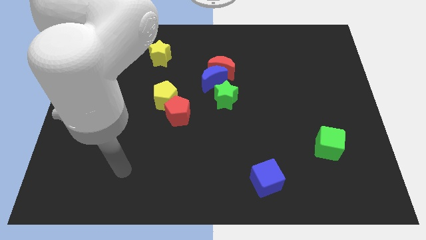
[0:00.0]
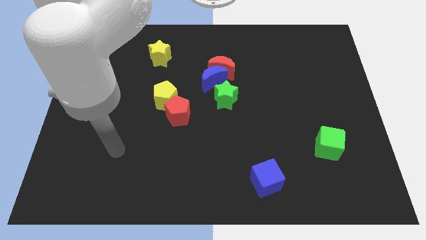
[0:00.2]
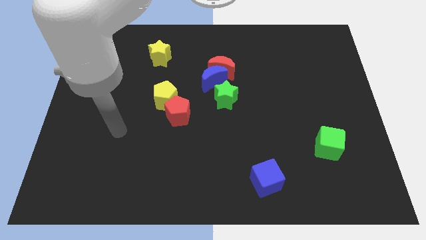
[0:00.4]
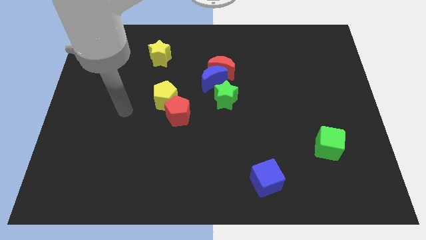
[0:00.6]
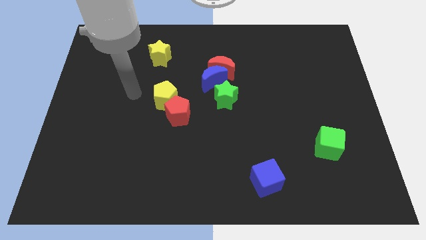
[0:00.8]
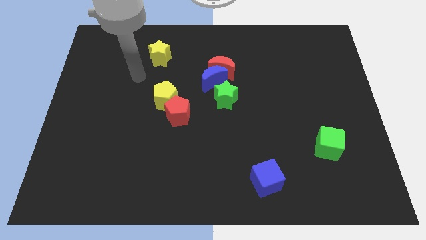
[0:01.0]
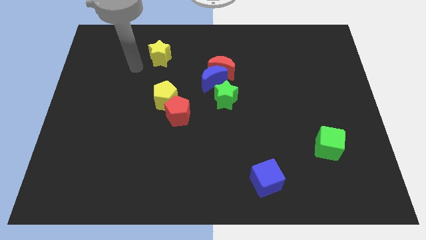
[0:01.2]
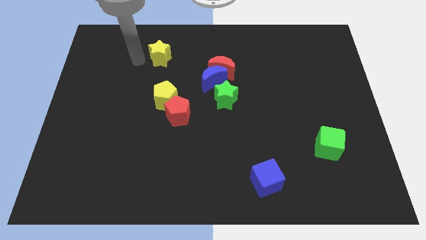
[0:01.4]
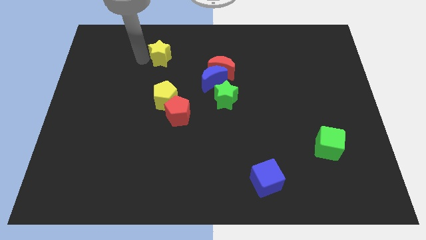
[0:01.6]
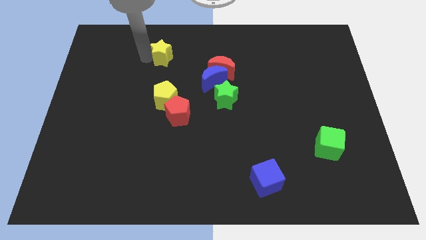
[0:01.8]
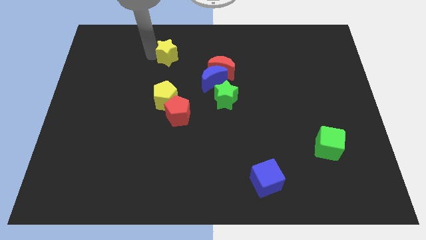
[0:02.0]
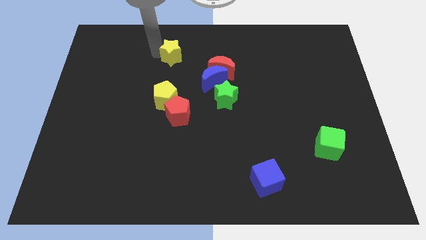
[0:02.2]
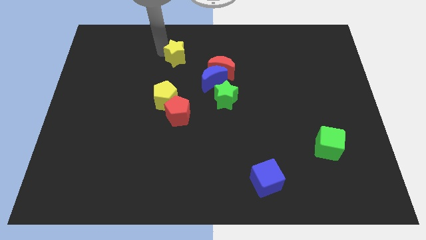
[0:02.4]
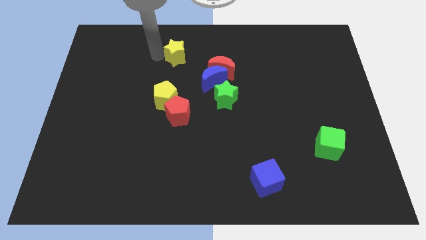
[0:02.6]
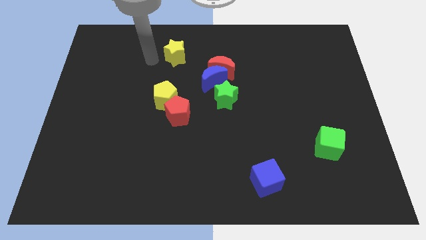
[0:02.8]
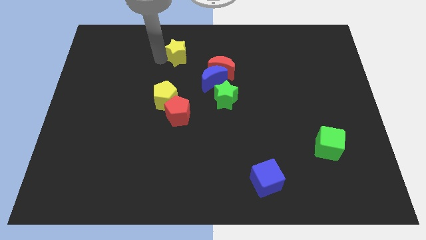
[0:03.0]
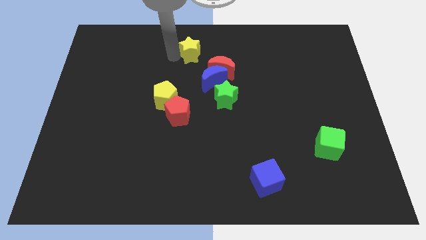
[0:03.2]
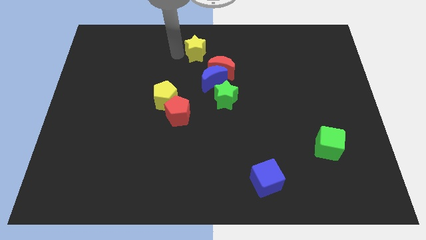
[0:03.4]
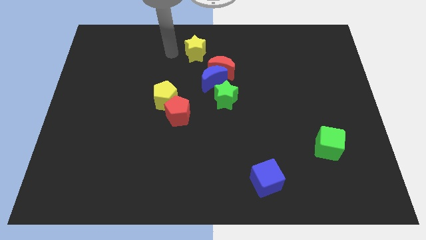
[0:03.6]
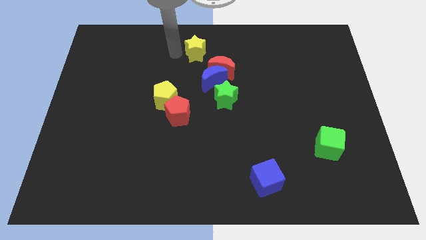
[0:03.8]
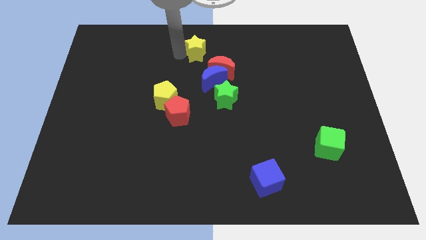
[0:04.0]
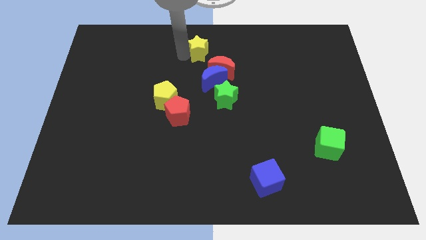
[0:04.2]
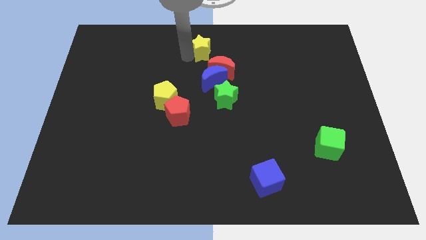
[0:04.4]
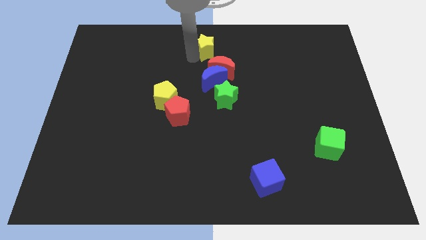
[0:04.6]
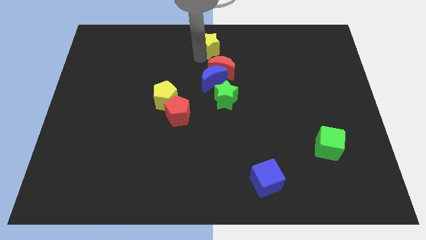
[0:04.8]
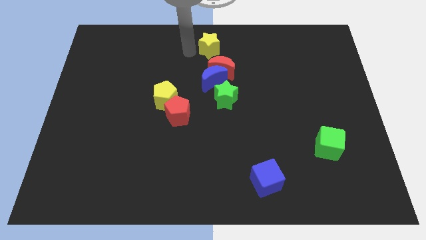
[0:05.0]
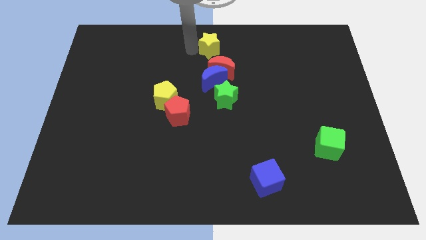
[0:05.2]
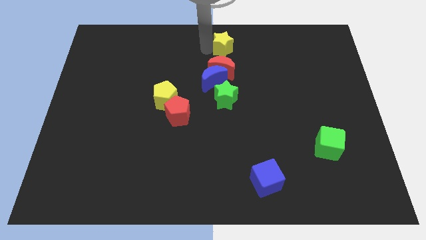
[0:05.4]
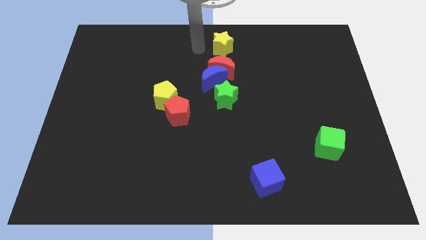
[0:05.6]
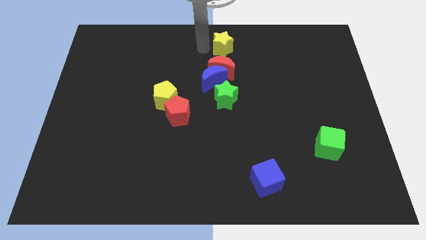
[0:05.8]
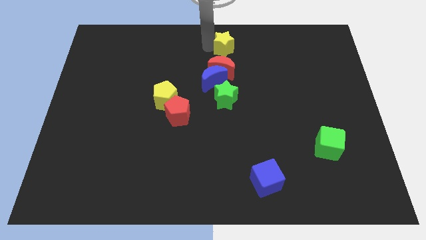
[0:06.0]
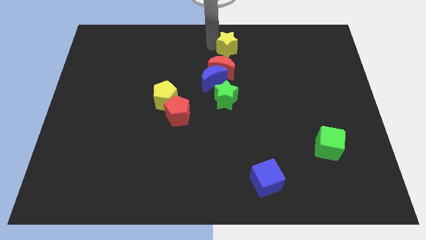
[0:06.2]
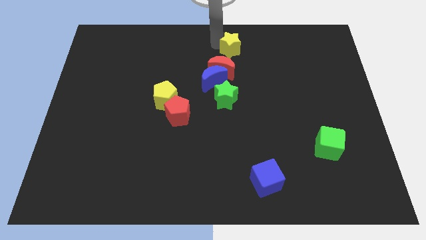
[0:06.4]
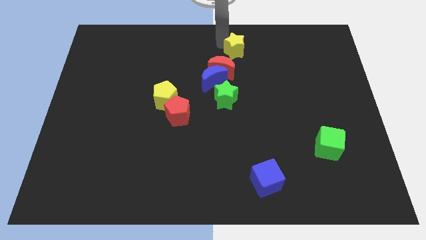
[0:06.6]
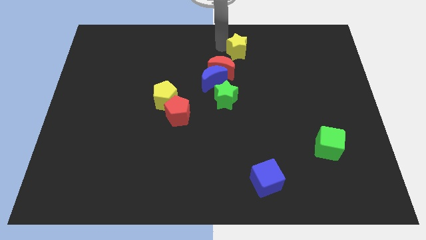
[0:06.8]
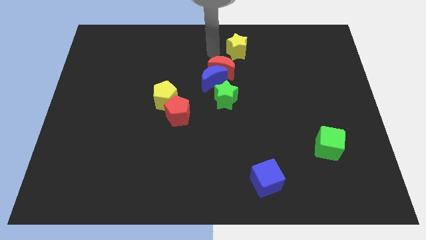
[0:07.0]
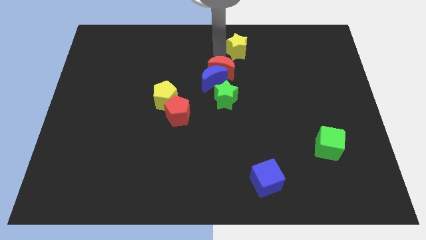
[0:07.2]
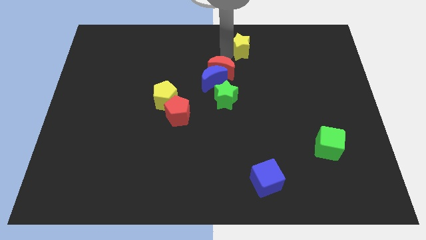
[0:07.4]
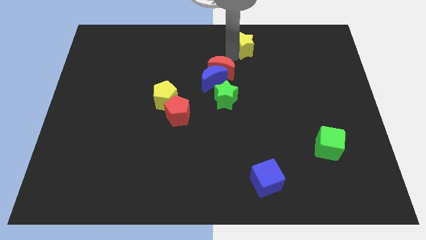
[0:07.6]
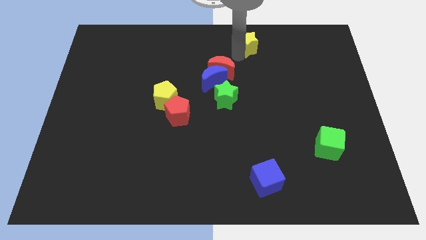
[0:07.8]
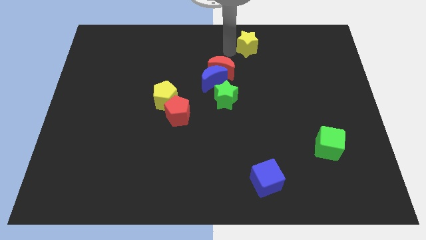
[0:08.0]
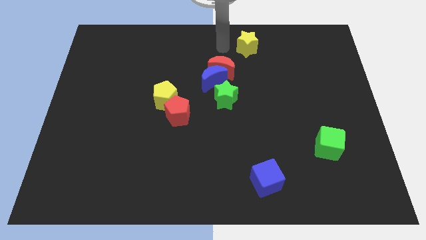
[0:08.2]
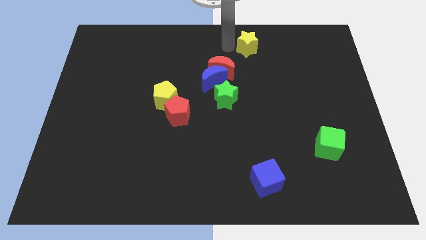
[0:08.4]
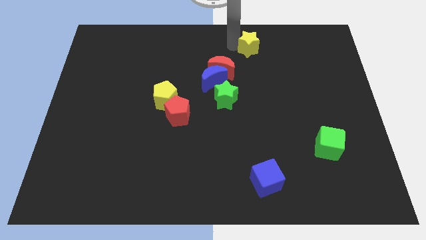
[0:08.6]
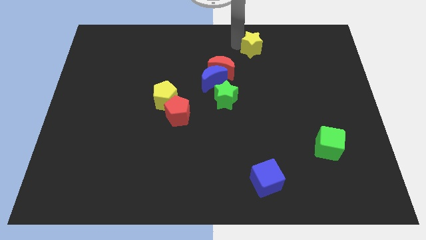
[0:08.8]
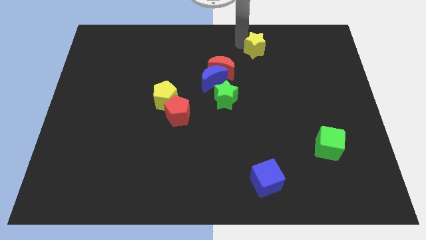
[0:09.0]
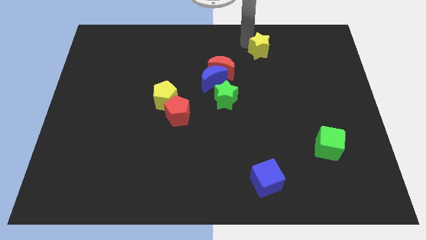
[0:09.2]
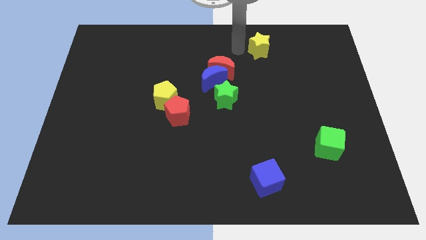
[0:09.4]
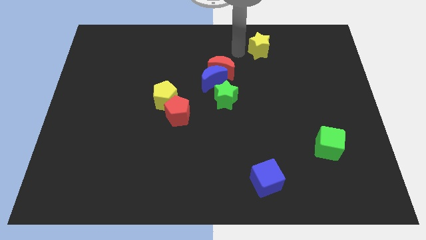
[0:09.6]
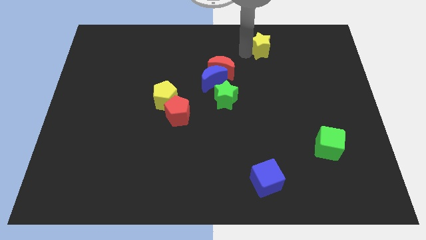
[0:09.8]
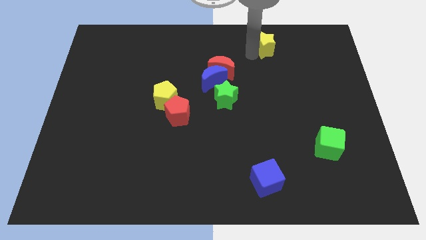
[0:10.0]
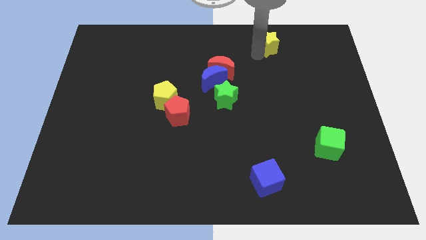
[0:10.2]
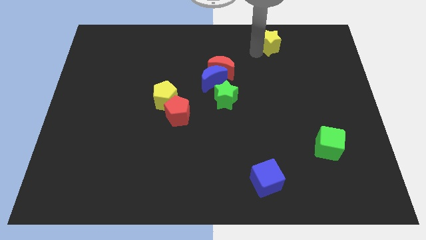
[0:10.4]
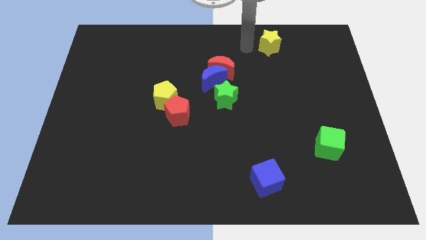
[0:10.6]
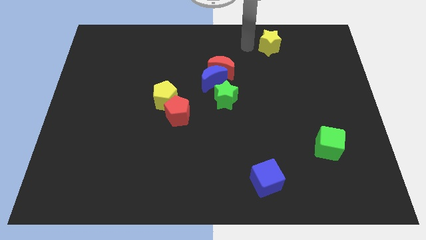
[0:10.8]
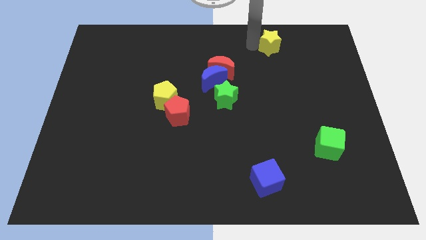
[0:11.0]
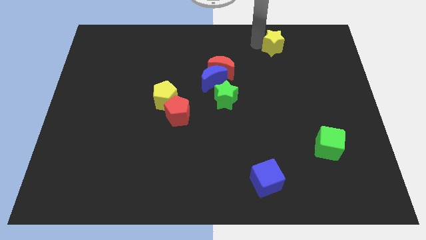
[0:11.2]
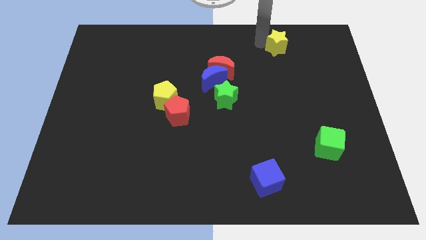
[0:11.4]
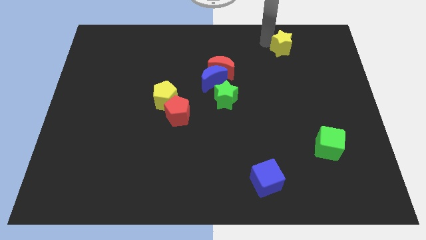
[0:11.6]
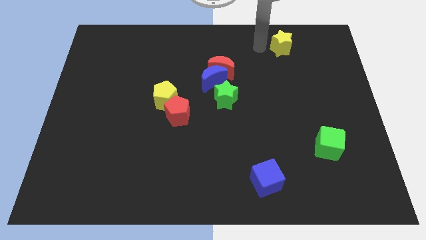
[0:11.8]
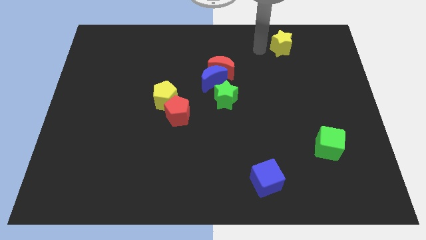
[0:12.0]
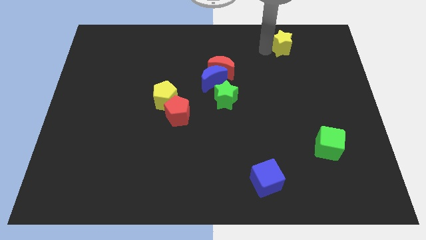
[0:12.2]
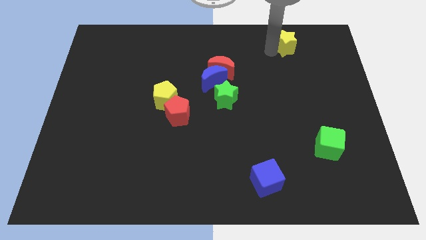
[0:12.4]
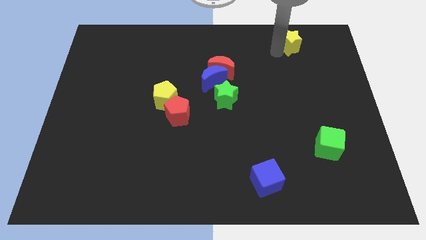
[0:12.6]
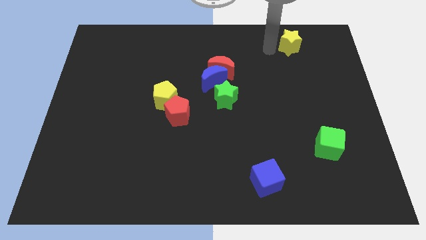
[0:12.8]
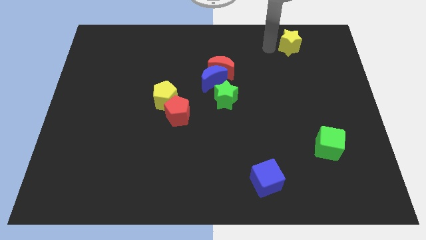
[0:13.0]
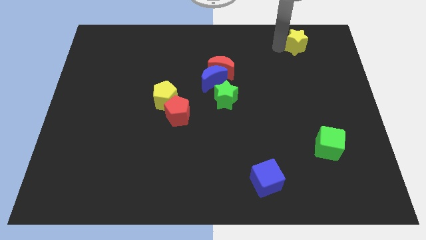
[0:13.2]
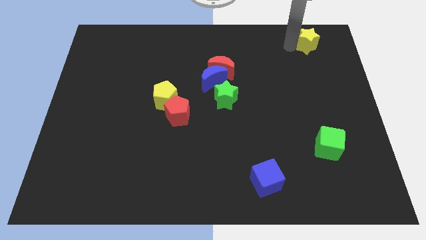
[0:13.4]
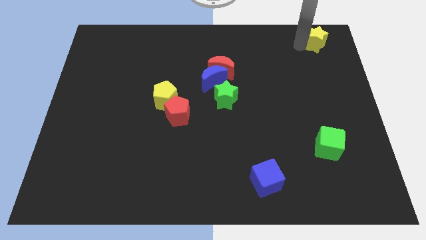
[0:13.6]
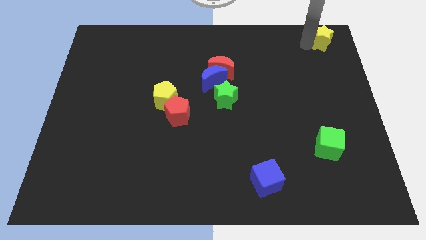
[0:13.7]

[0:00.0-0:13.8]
push the yellow star to the top right
